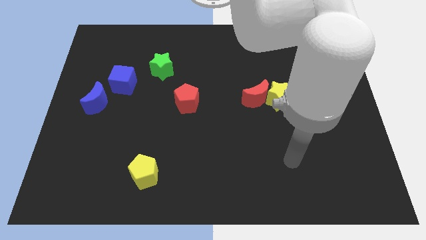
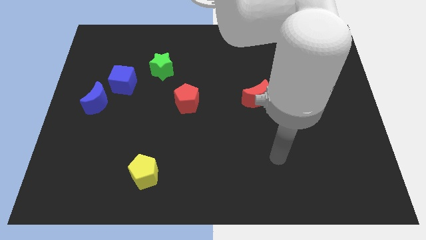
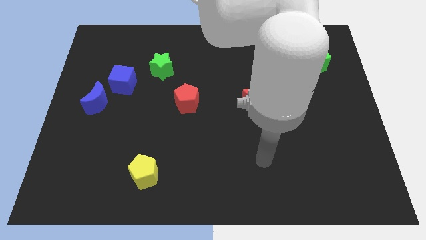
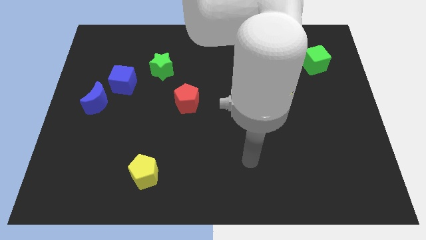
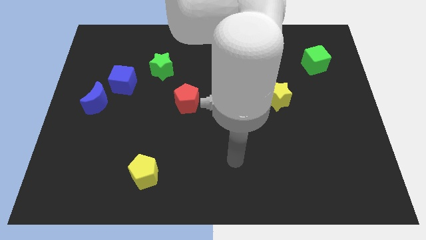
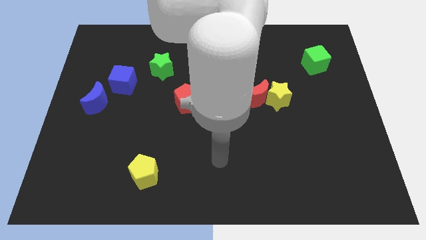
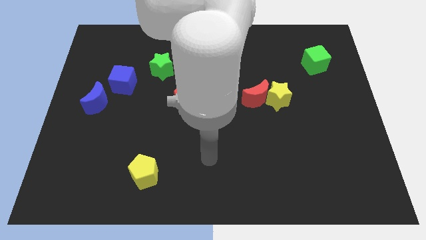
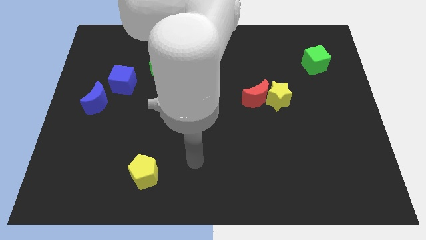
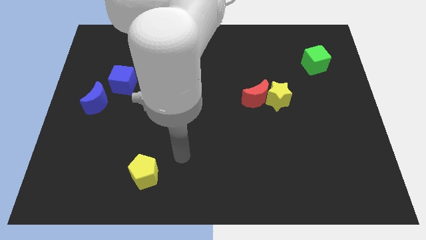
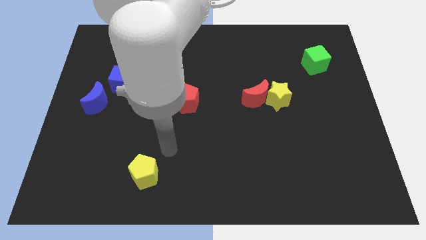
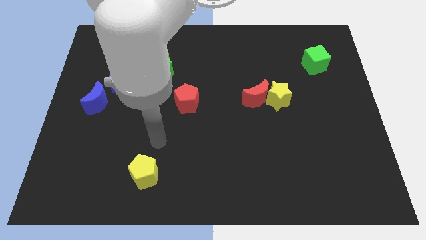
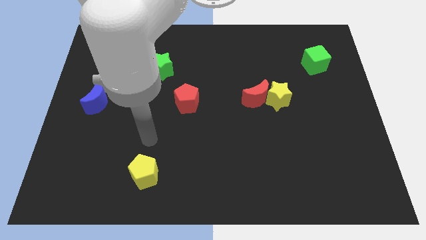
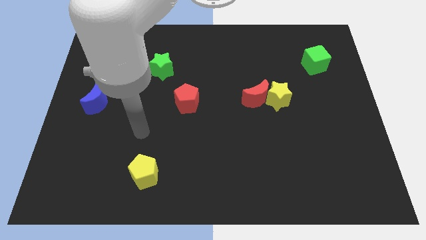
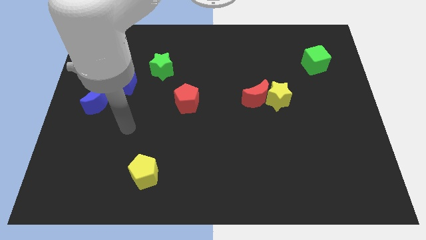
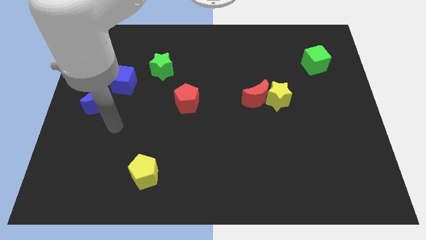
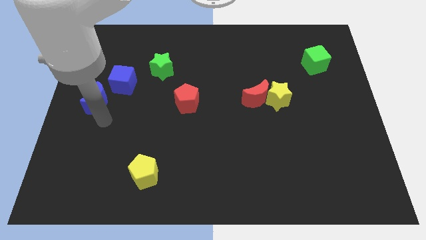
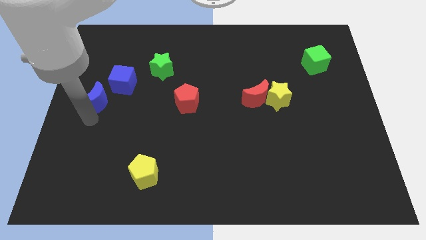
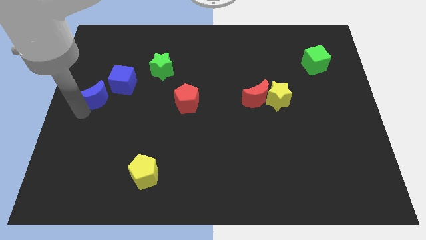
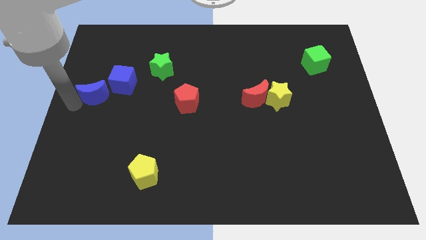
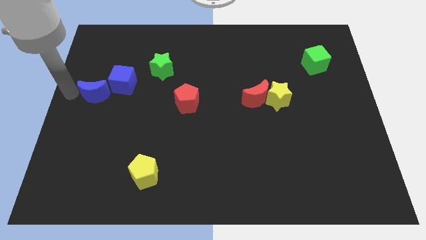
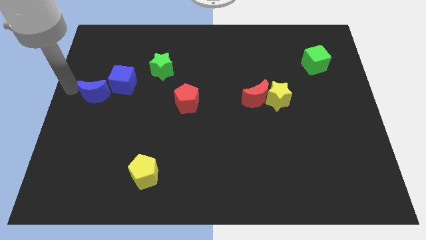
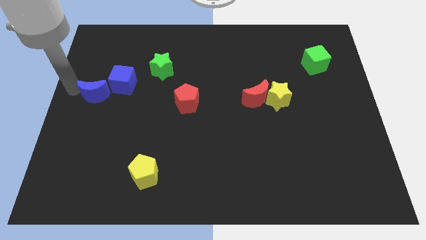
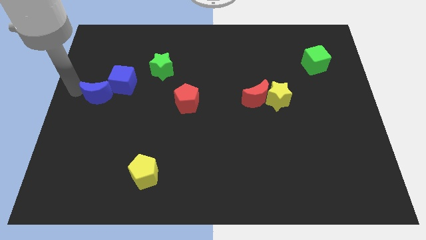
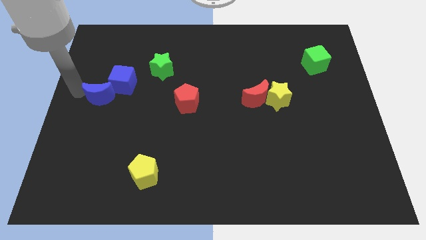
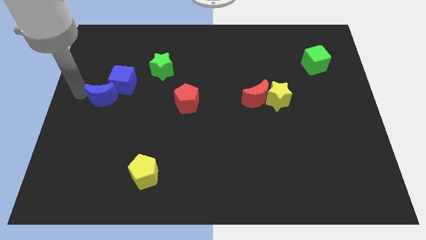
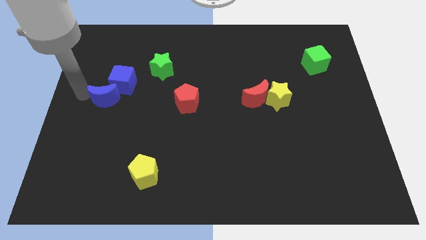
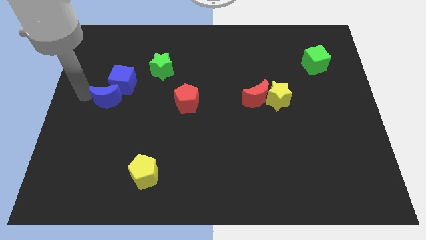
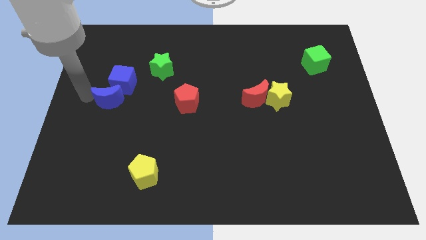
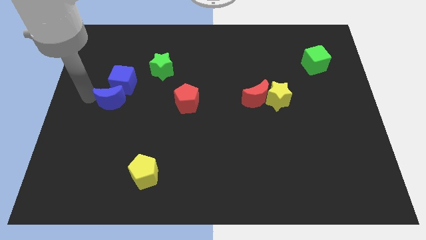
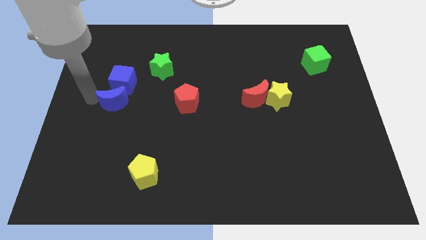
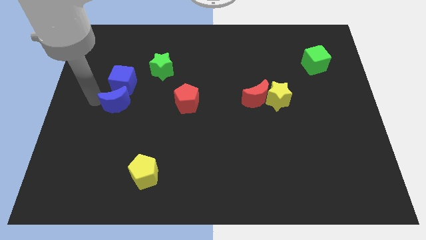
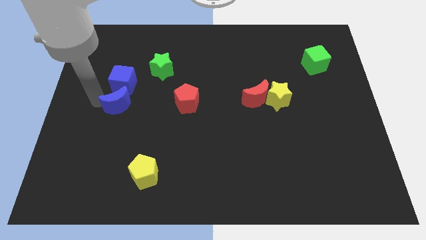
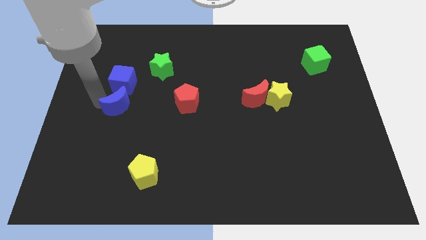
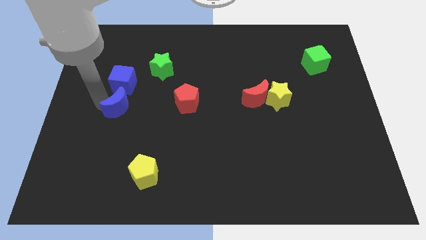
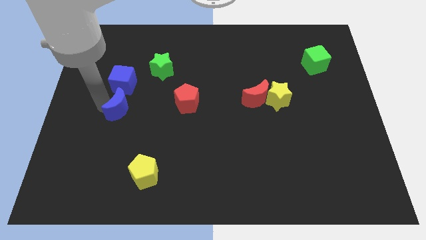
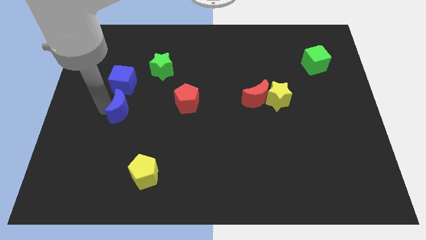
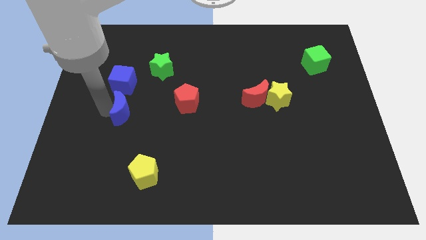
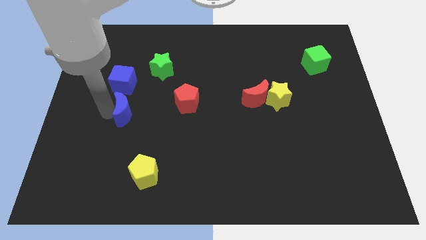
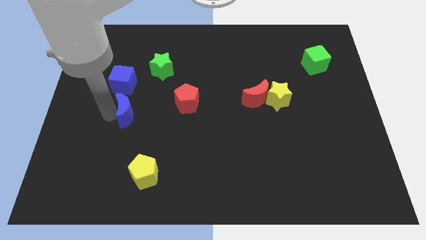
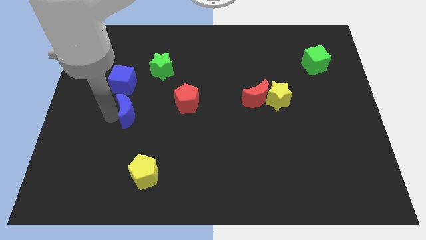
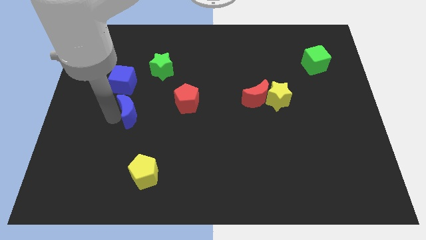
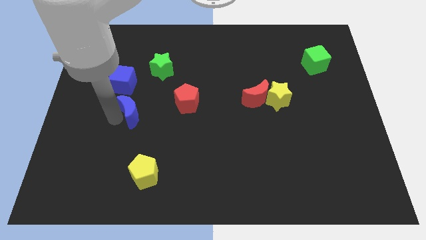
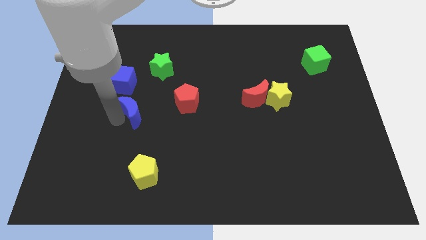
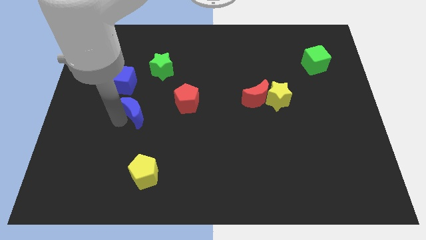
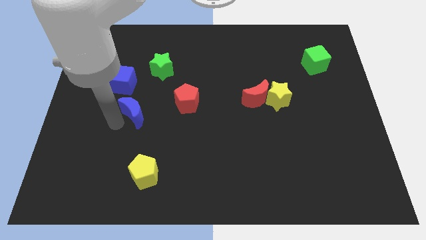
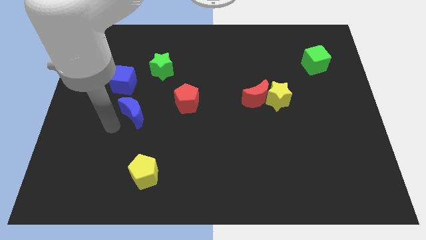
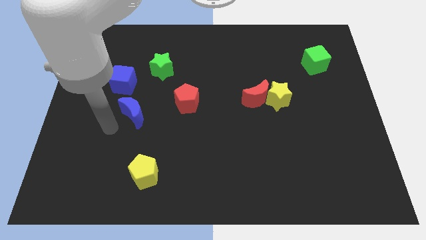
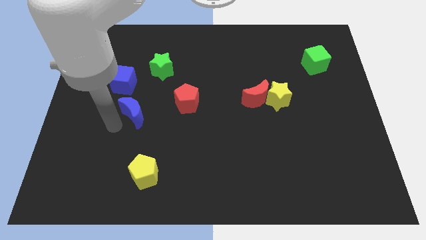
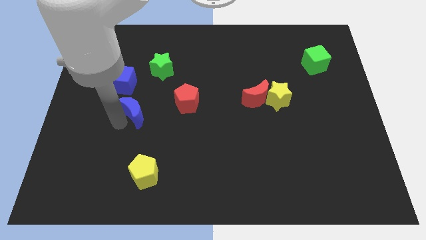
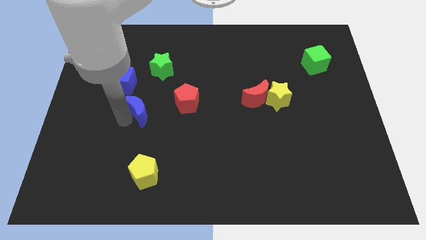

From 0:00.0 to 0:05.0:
slide the blue moon to the bottom of the green star

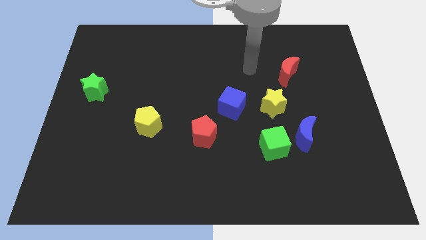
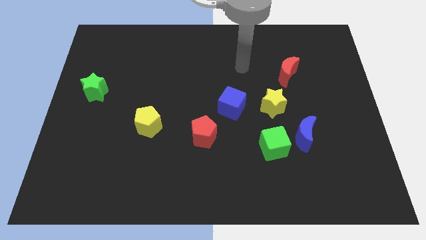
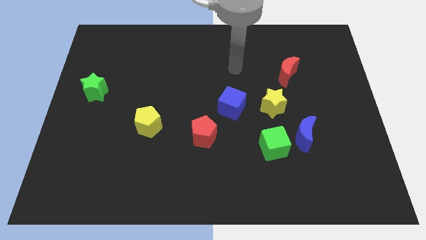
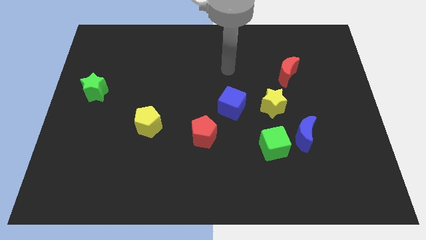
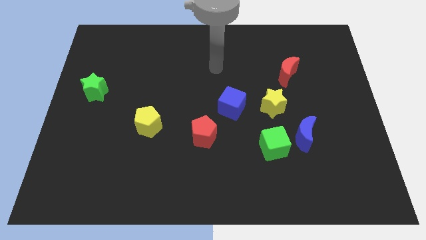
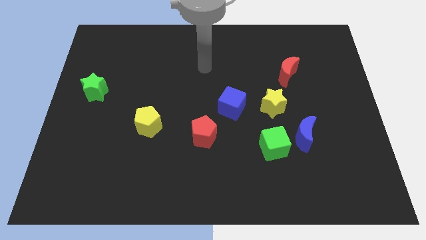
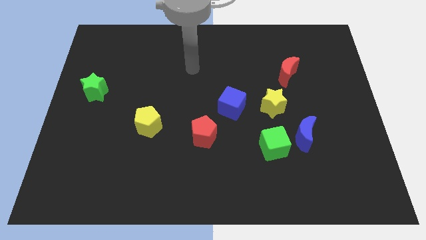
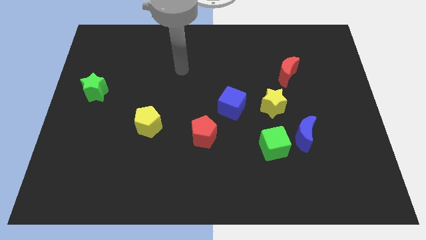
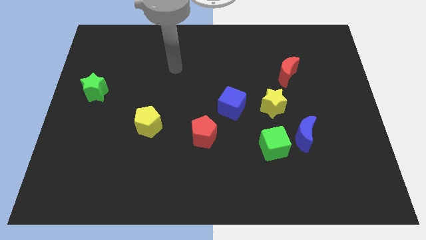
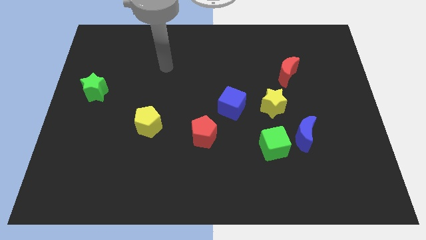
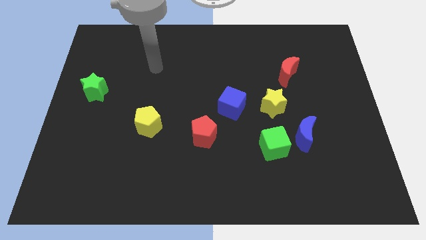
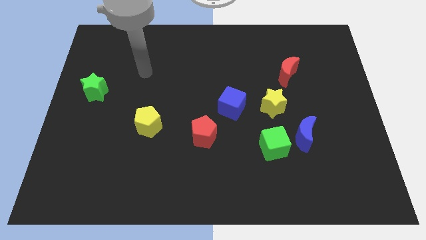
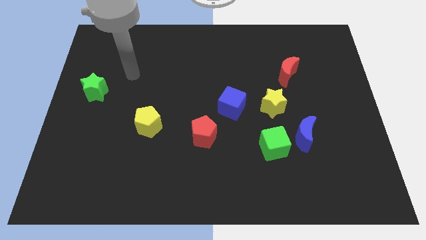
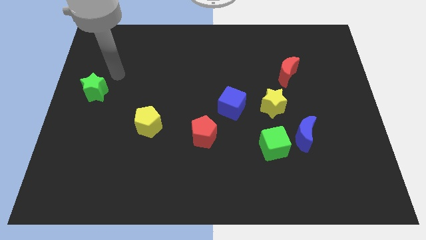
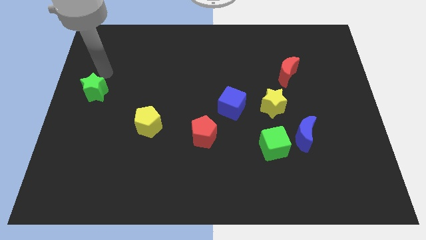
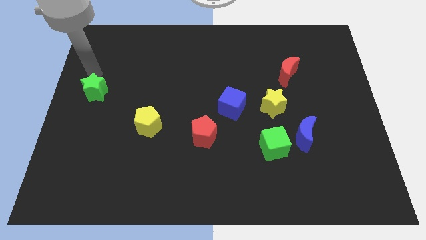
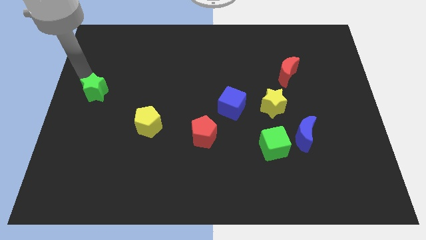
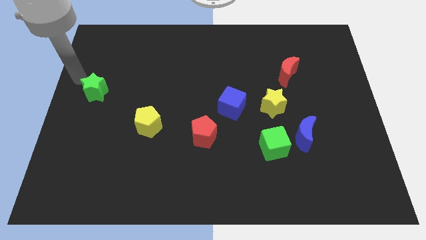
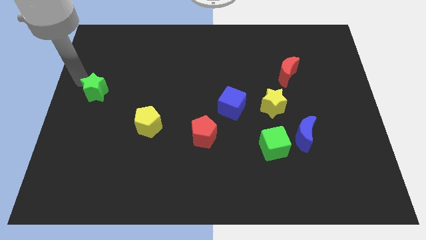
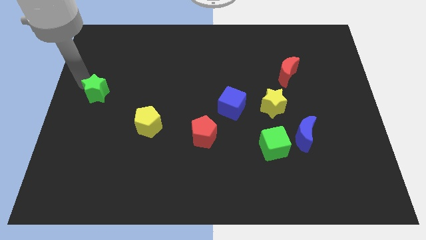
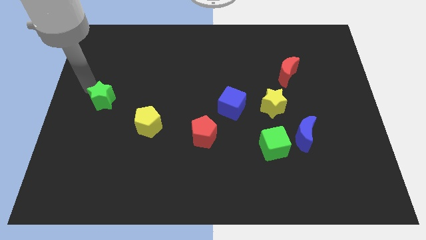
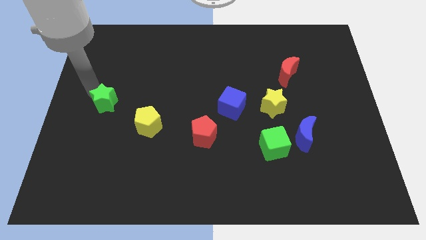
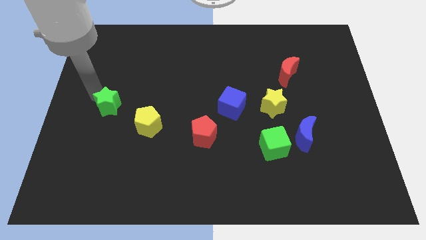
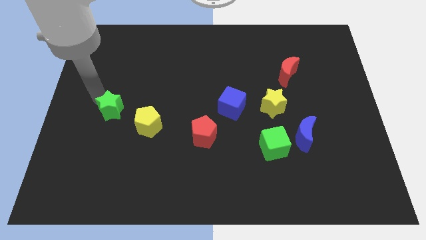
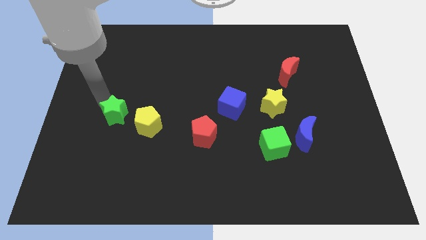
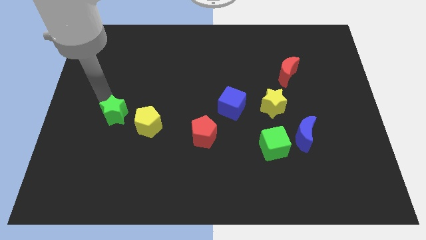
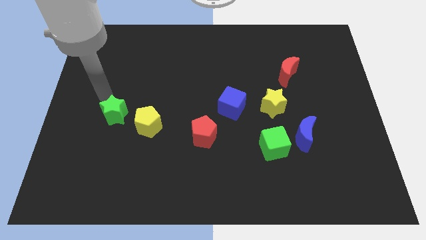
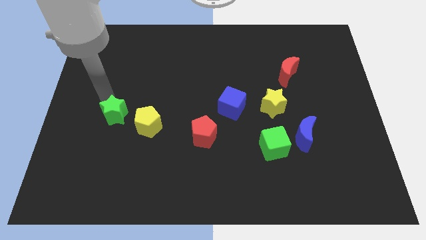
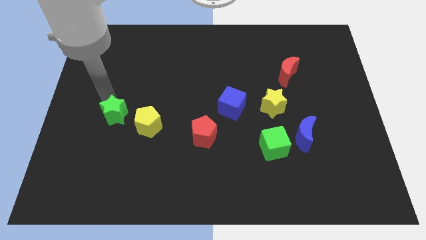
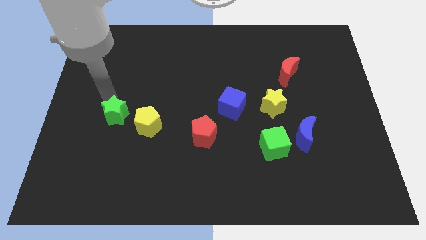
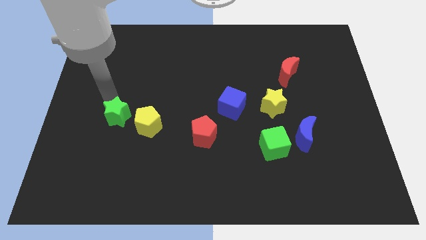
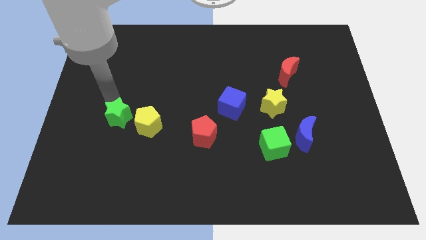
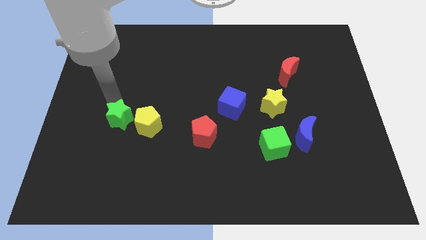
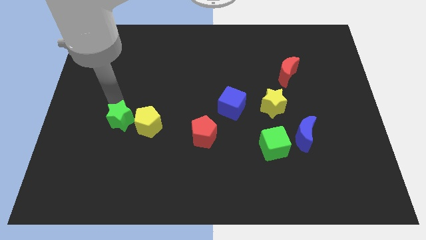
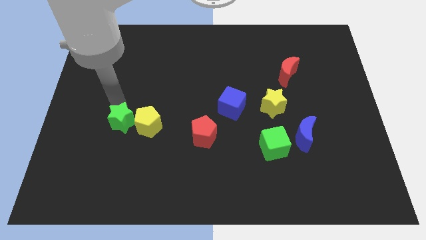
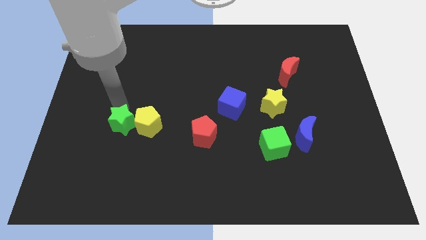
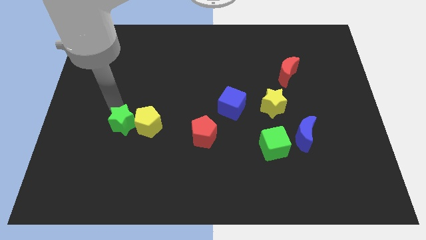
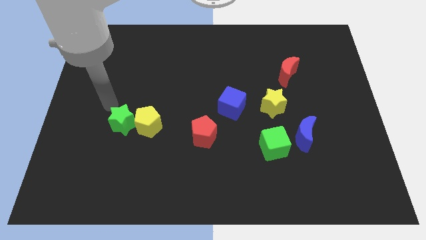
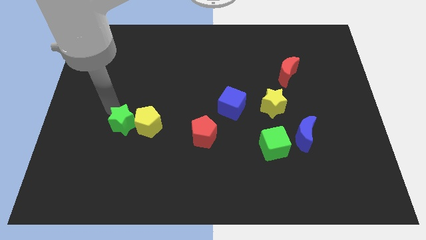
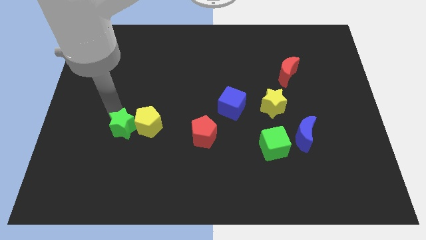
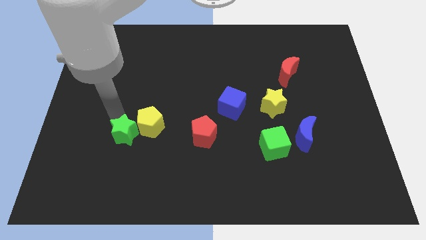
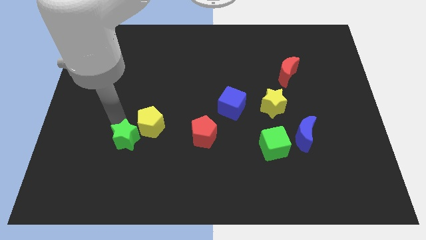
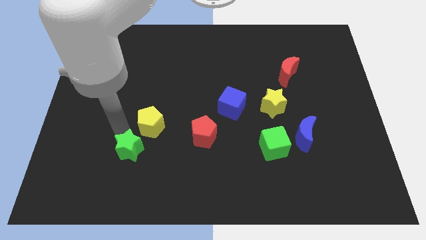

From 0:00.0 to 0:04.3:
move the green star to the bottom side of the yellow pentagon
